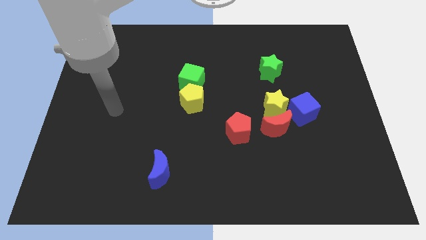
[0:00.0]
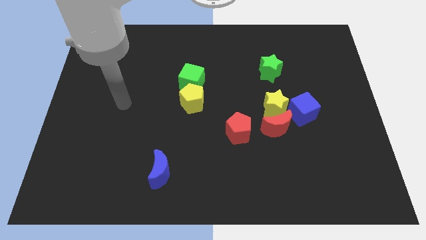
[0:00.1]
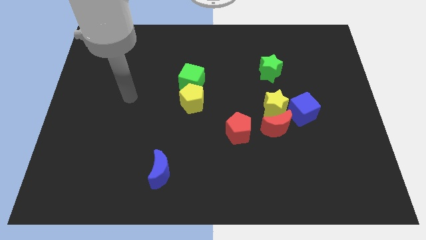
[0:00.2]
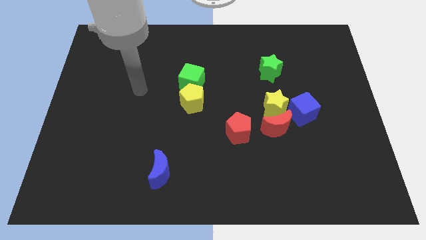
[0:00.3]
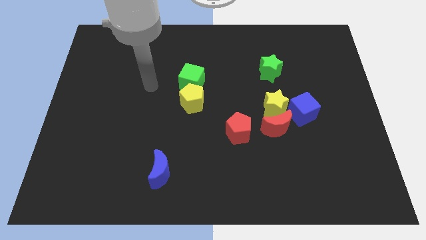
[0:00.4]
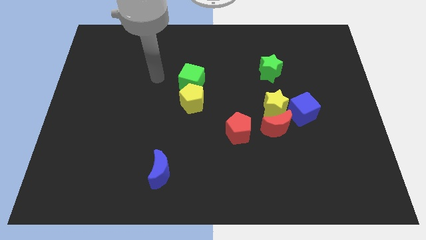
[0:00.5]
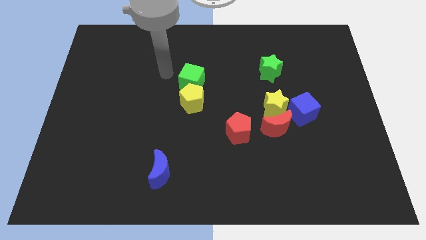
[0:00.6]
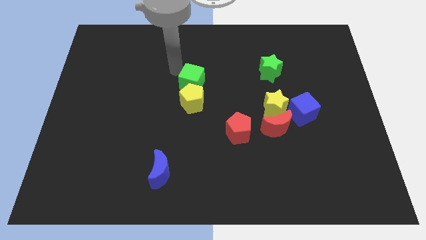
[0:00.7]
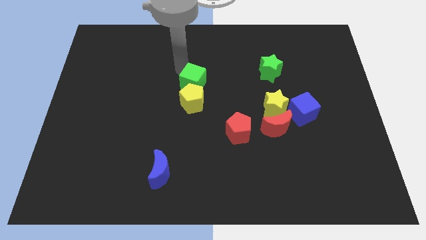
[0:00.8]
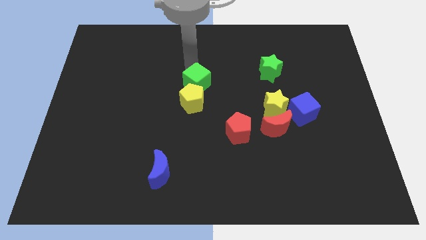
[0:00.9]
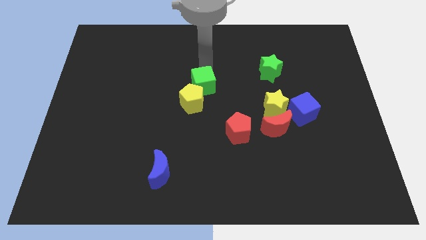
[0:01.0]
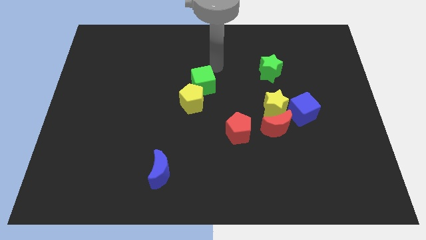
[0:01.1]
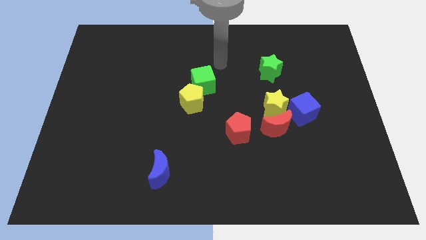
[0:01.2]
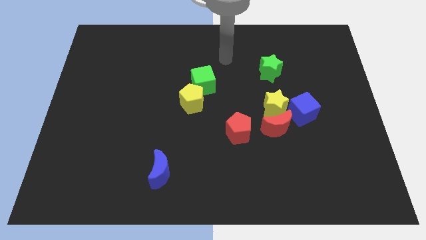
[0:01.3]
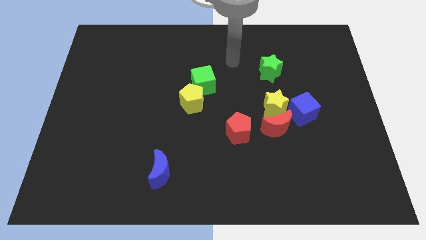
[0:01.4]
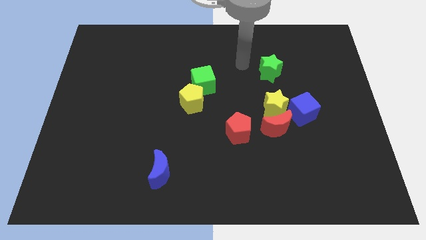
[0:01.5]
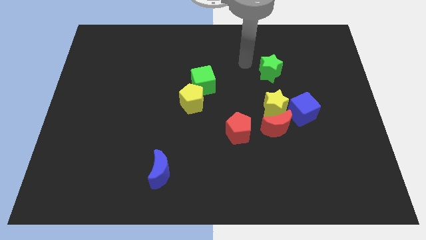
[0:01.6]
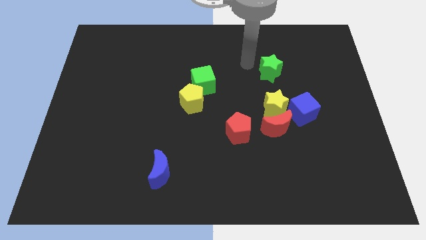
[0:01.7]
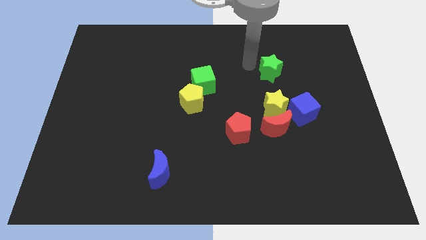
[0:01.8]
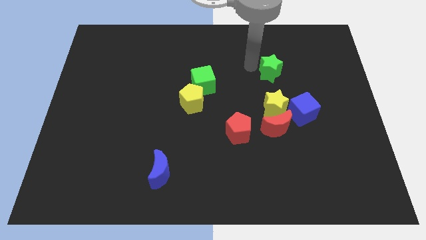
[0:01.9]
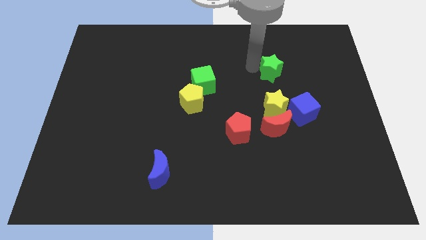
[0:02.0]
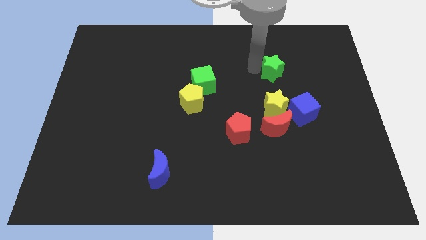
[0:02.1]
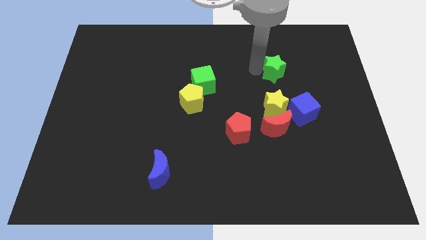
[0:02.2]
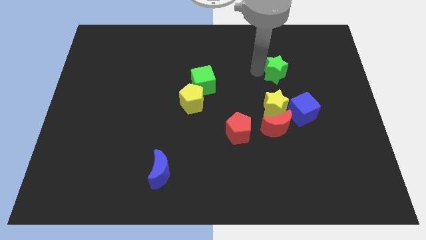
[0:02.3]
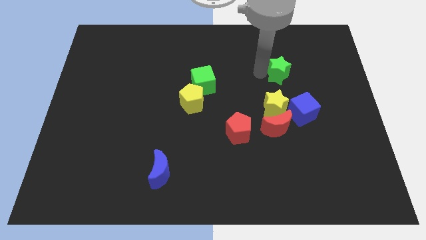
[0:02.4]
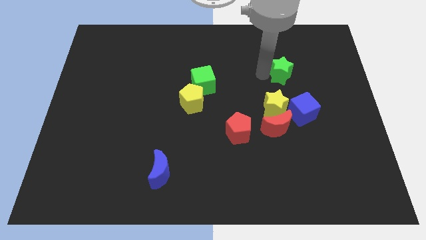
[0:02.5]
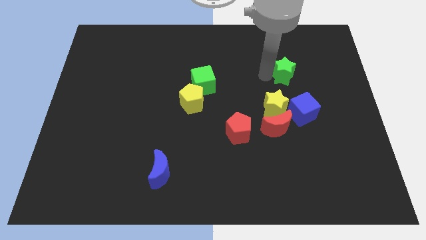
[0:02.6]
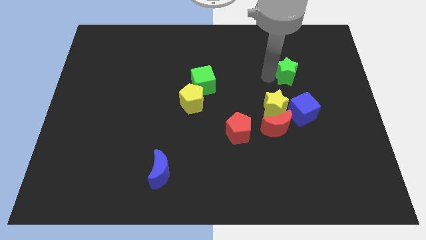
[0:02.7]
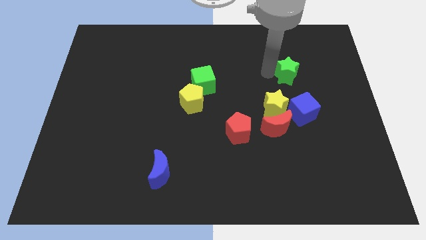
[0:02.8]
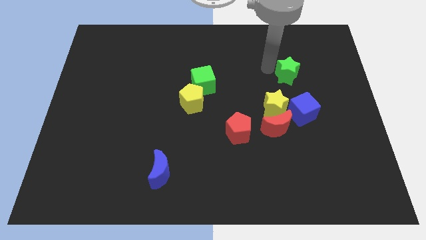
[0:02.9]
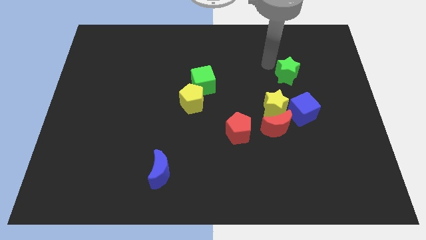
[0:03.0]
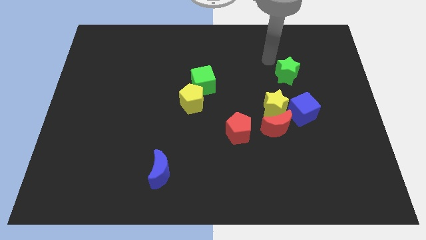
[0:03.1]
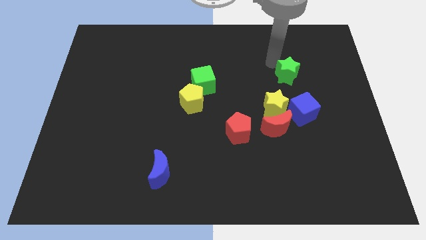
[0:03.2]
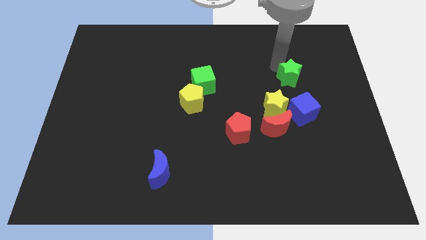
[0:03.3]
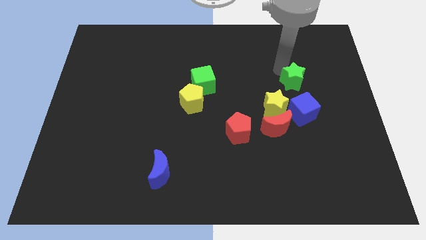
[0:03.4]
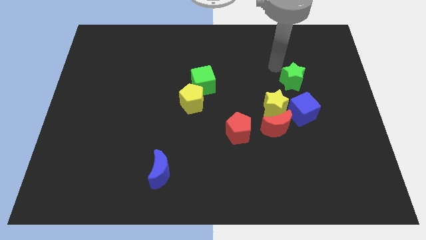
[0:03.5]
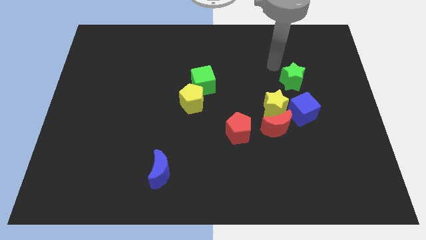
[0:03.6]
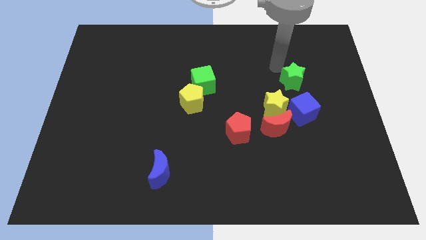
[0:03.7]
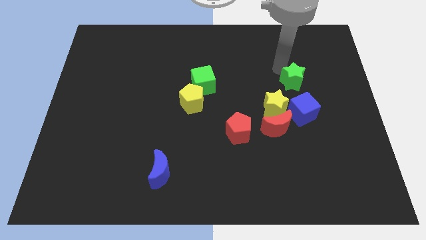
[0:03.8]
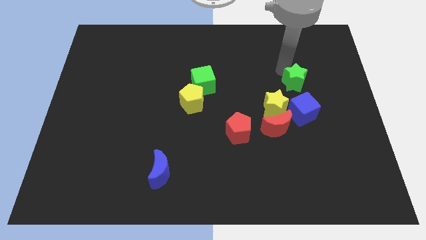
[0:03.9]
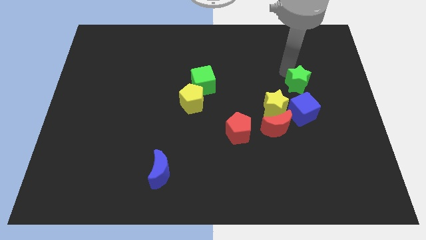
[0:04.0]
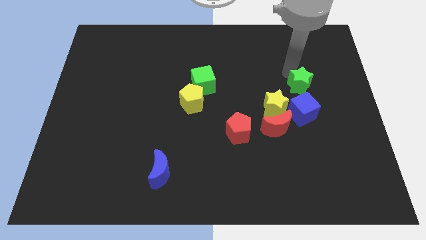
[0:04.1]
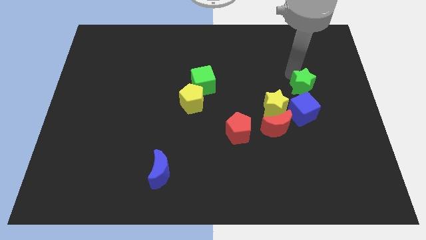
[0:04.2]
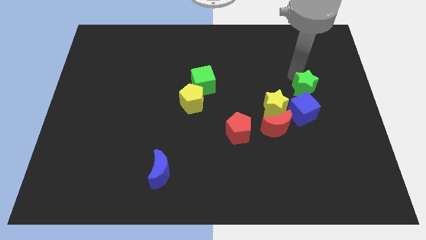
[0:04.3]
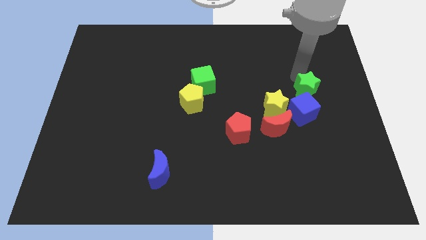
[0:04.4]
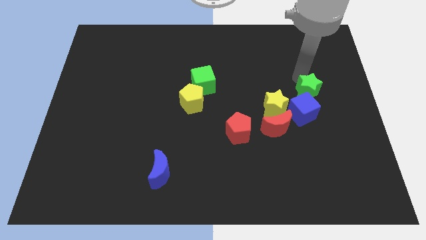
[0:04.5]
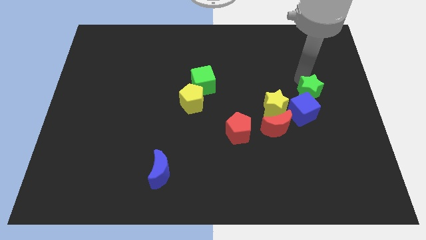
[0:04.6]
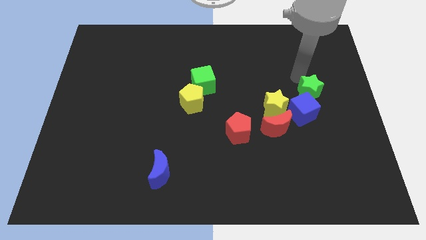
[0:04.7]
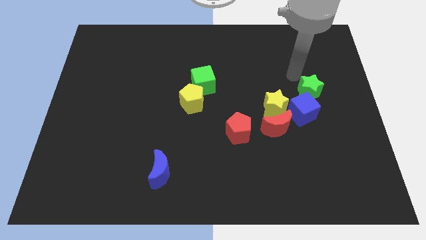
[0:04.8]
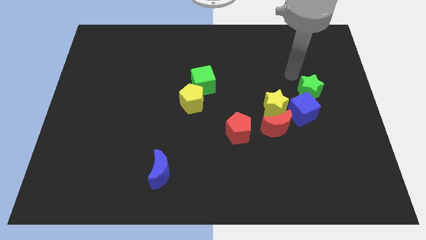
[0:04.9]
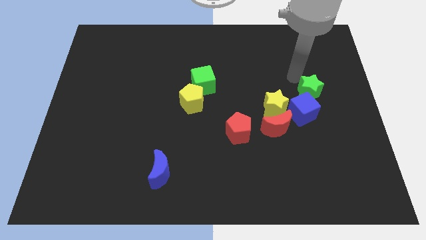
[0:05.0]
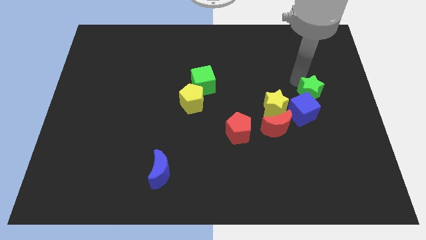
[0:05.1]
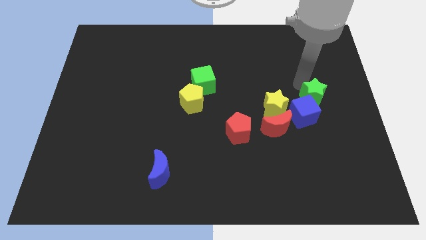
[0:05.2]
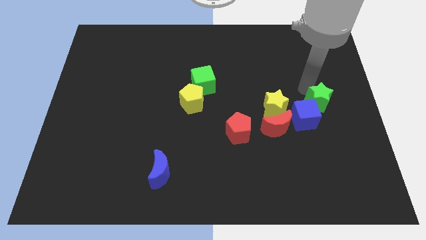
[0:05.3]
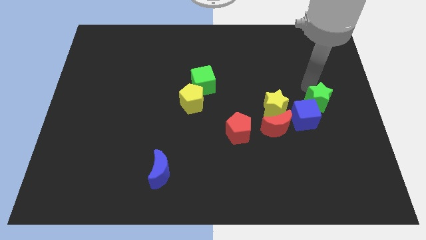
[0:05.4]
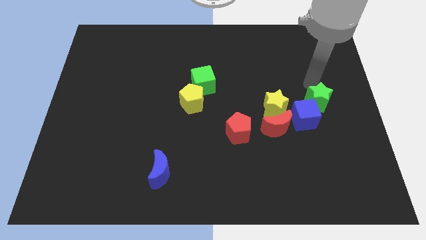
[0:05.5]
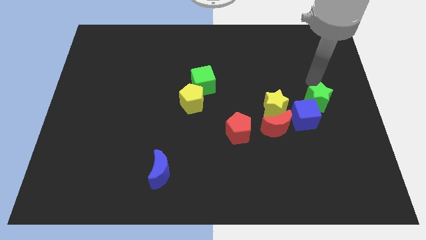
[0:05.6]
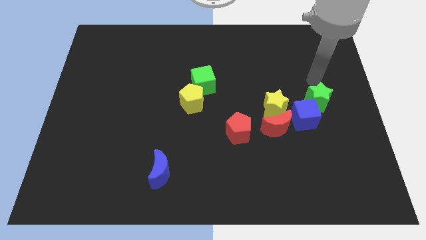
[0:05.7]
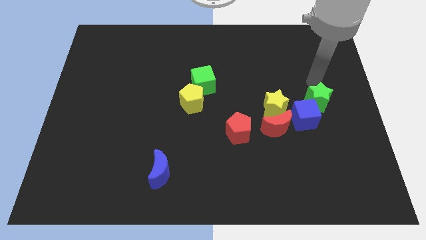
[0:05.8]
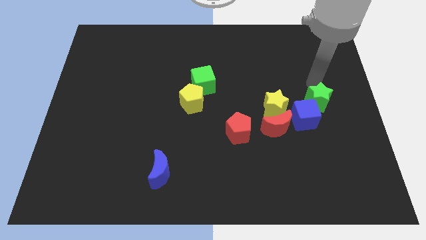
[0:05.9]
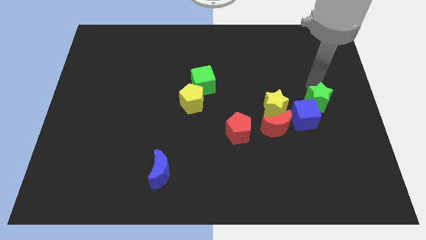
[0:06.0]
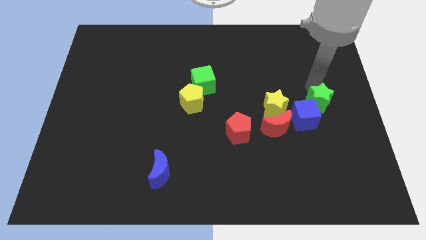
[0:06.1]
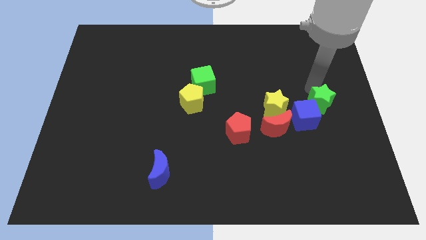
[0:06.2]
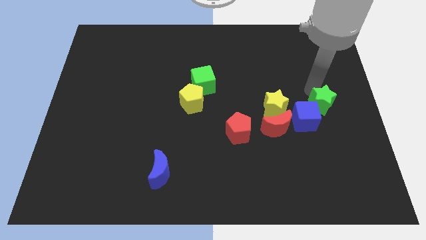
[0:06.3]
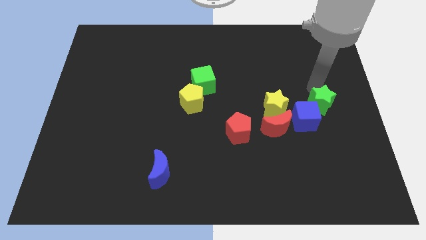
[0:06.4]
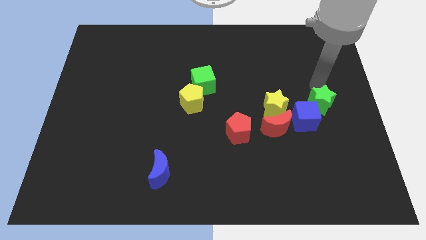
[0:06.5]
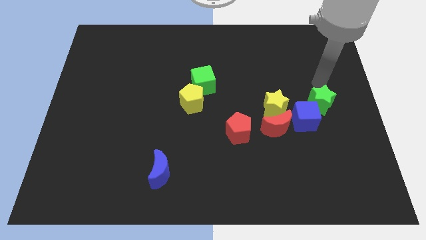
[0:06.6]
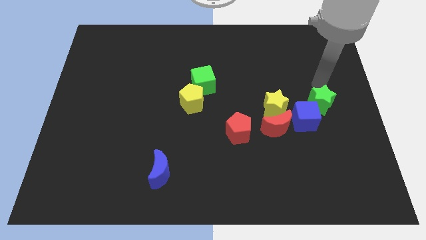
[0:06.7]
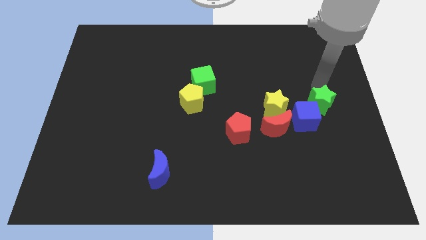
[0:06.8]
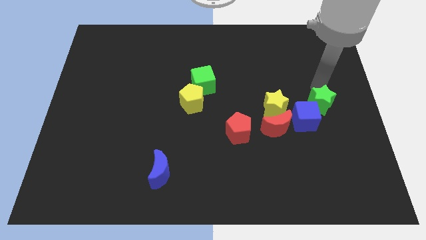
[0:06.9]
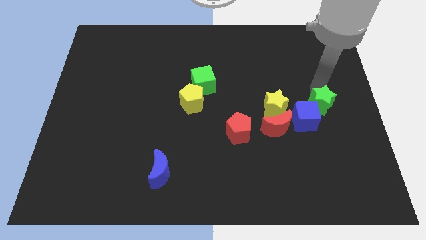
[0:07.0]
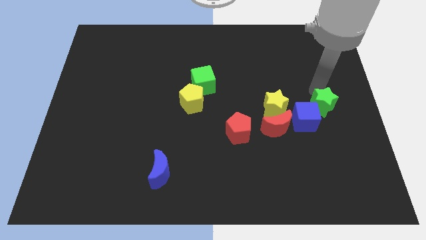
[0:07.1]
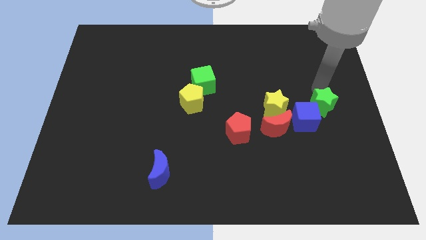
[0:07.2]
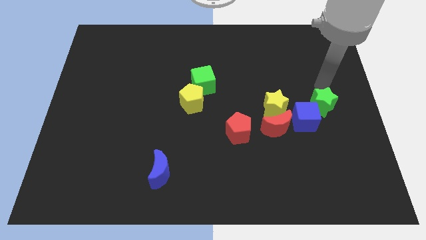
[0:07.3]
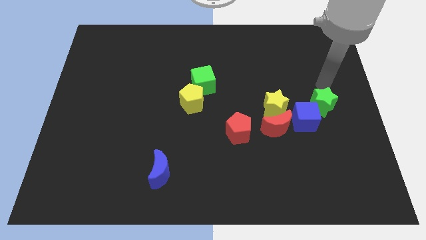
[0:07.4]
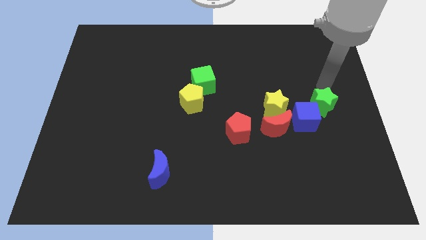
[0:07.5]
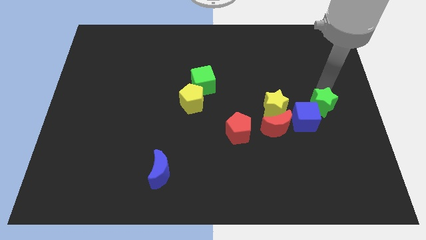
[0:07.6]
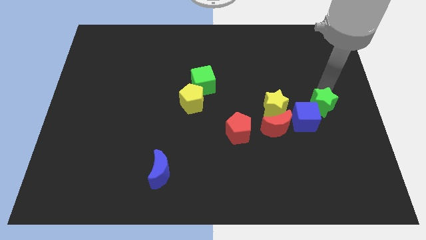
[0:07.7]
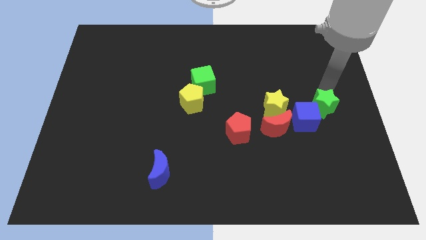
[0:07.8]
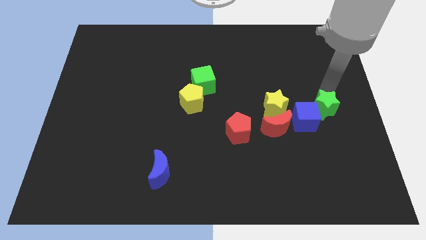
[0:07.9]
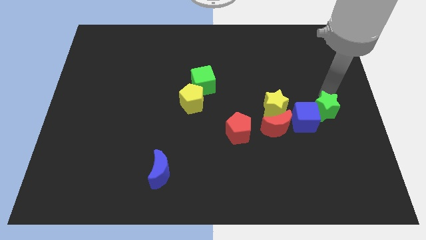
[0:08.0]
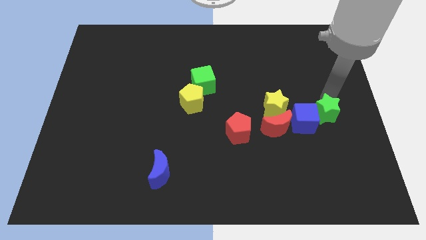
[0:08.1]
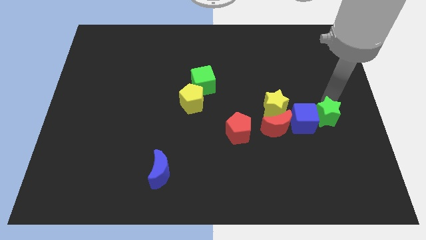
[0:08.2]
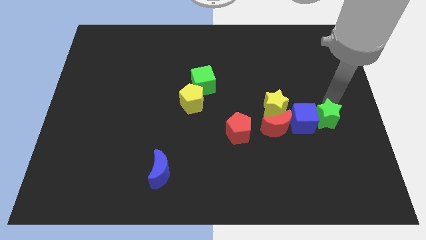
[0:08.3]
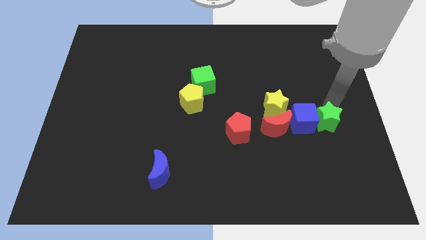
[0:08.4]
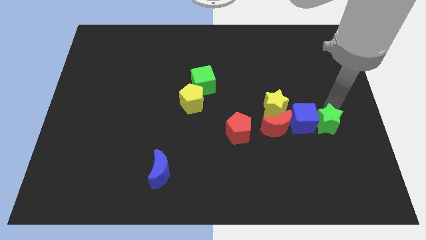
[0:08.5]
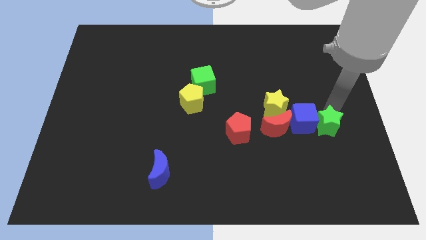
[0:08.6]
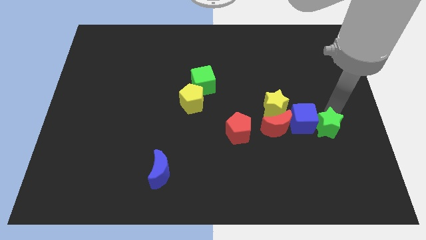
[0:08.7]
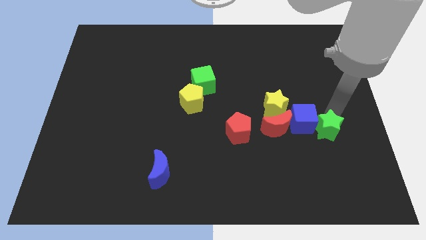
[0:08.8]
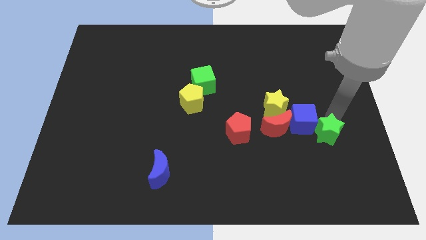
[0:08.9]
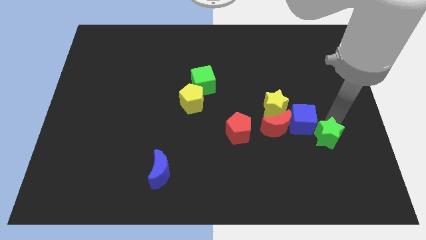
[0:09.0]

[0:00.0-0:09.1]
slide the green star to the bottom side of the blue cube
